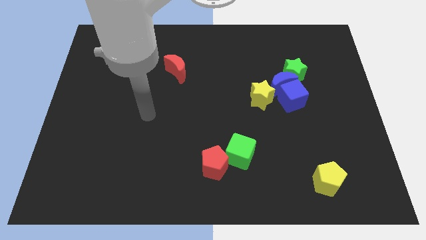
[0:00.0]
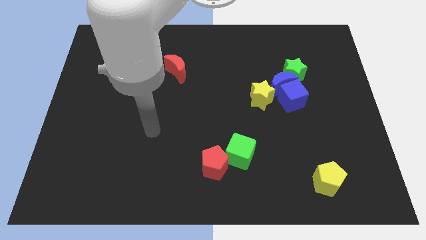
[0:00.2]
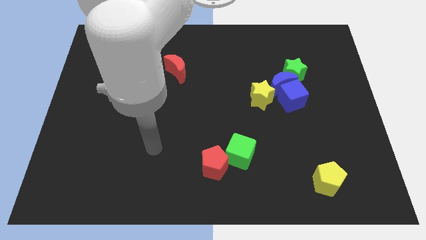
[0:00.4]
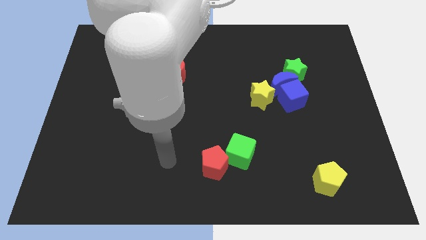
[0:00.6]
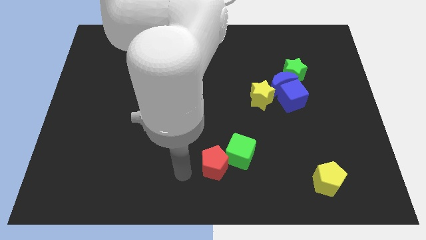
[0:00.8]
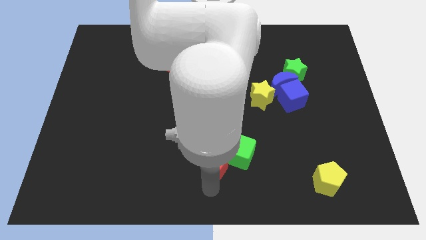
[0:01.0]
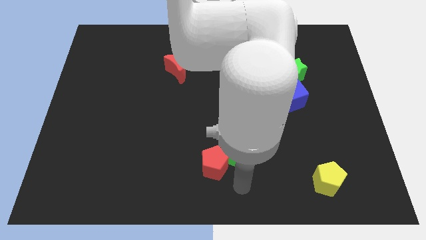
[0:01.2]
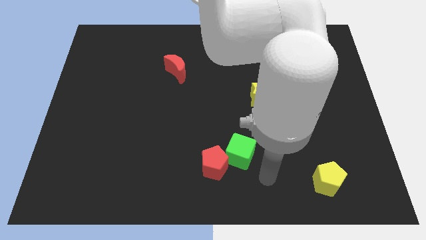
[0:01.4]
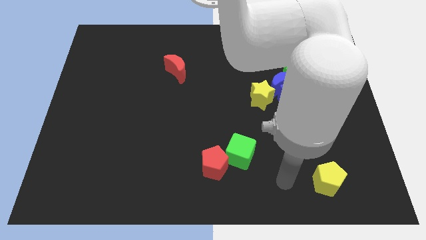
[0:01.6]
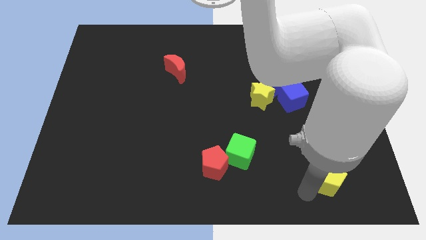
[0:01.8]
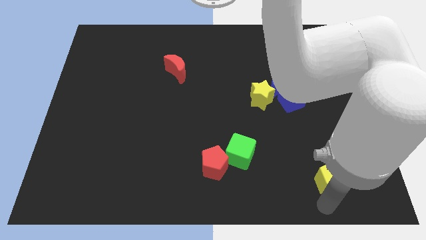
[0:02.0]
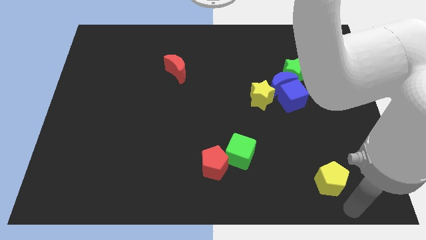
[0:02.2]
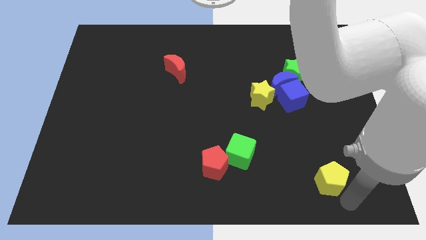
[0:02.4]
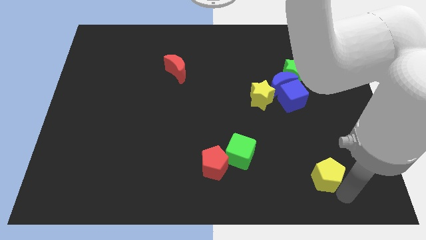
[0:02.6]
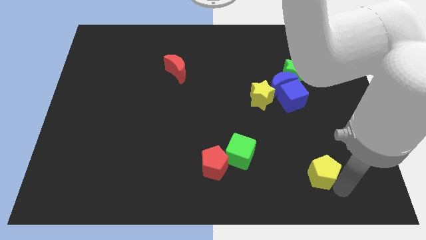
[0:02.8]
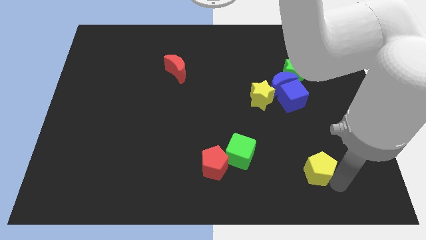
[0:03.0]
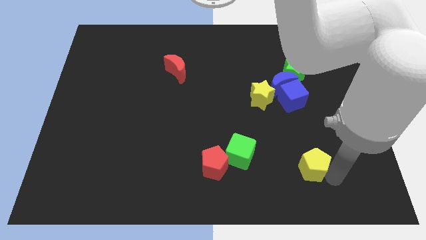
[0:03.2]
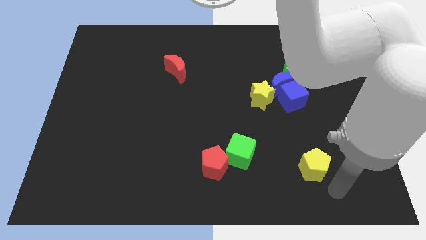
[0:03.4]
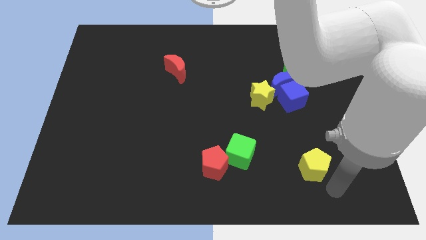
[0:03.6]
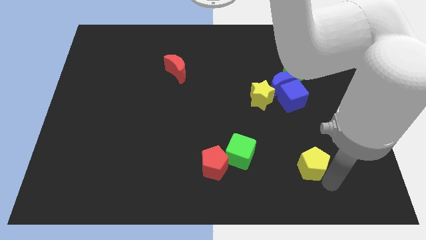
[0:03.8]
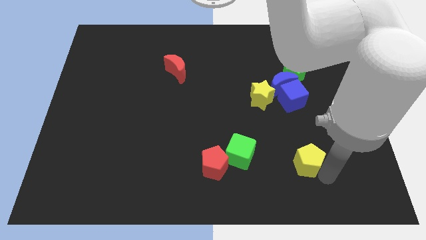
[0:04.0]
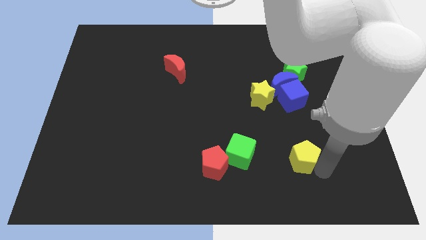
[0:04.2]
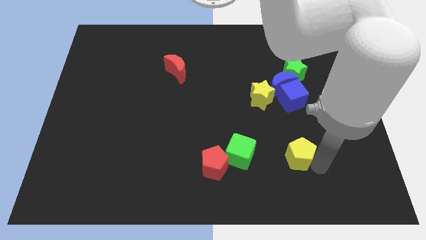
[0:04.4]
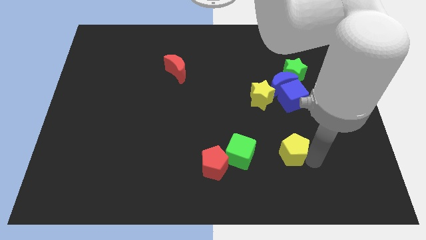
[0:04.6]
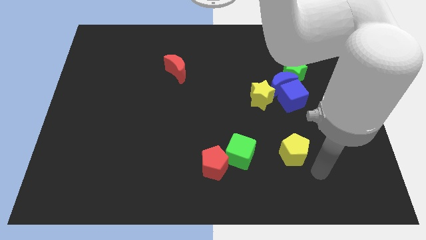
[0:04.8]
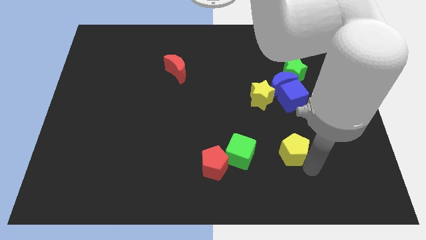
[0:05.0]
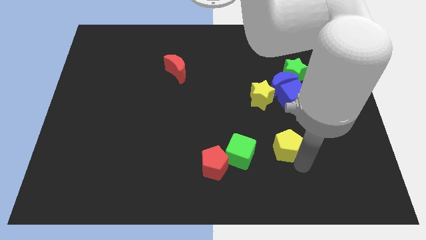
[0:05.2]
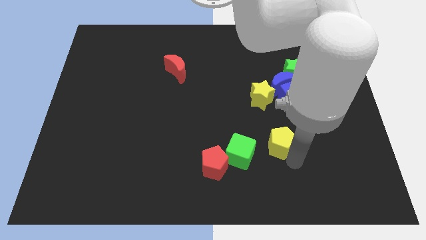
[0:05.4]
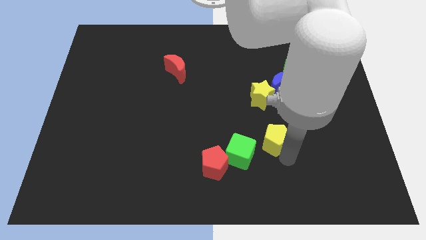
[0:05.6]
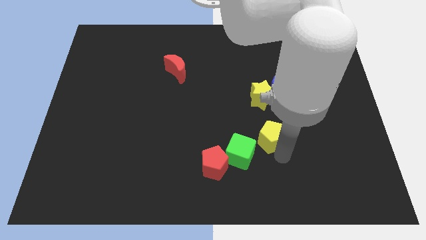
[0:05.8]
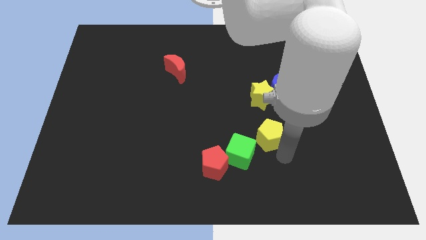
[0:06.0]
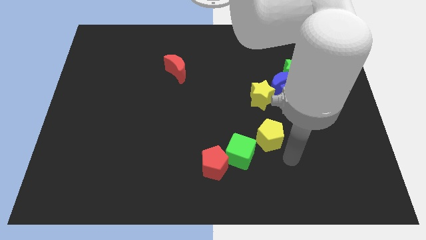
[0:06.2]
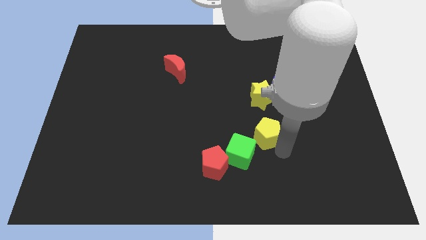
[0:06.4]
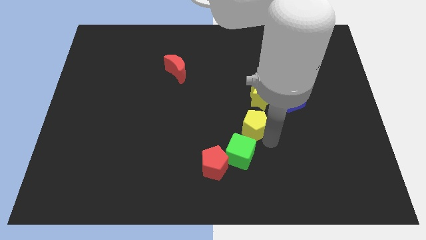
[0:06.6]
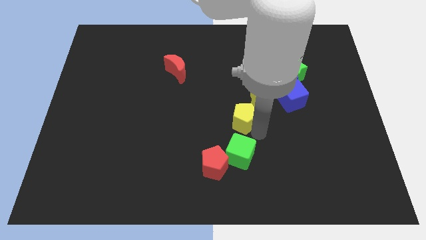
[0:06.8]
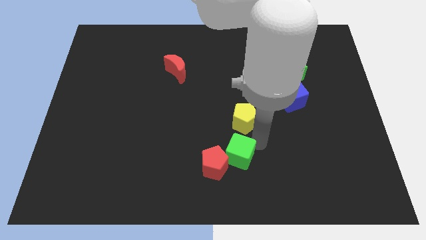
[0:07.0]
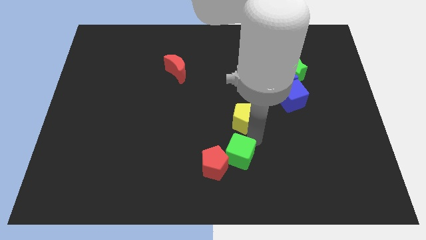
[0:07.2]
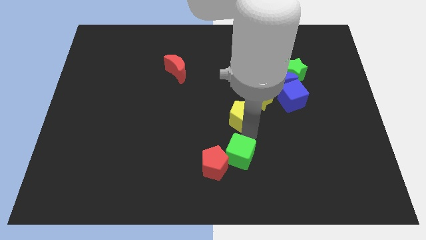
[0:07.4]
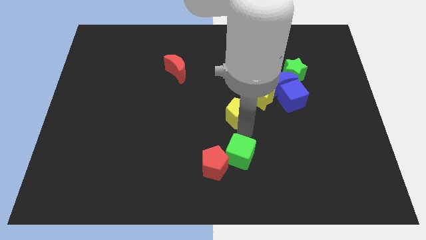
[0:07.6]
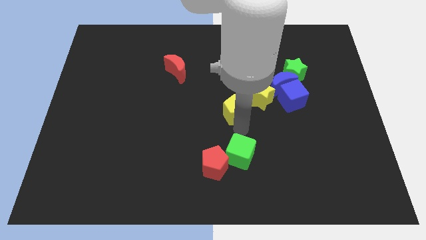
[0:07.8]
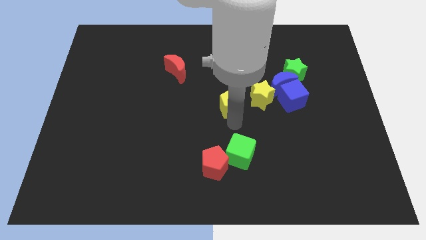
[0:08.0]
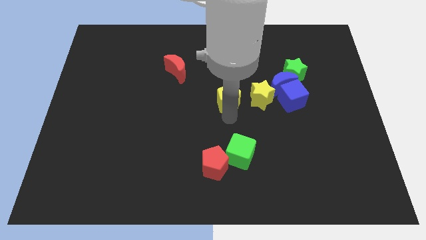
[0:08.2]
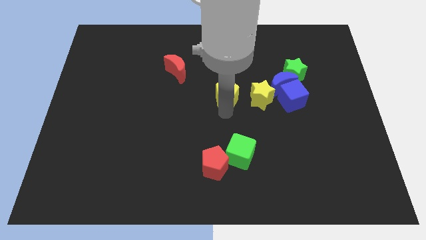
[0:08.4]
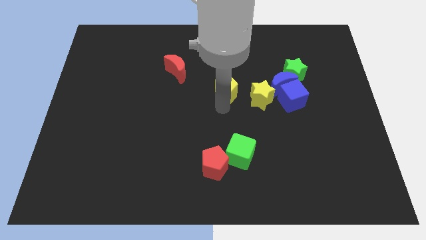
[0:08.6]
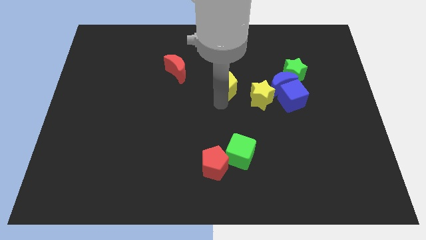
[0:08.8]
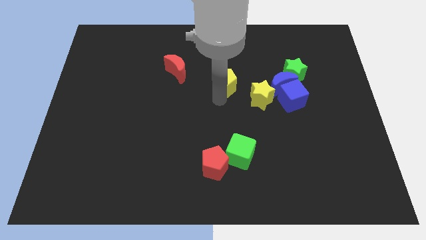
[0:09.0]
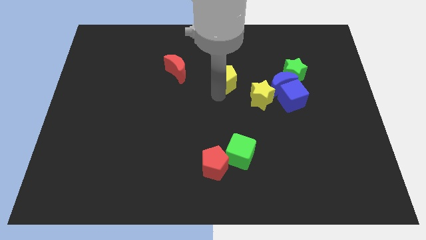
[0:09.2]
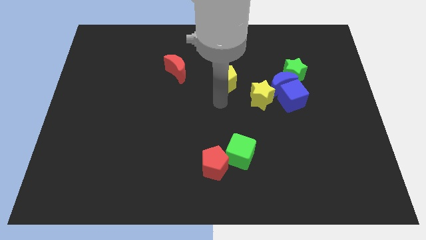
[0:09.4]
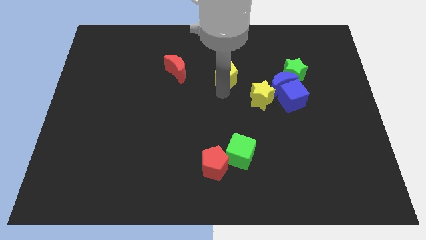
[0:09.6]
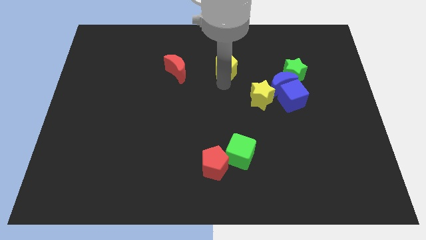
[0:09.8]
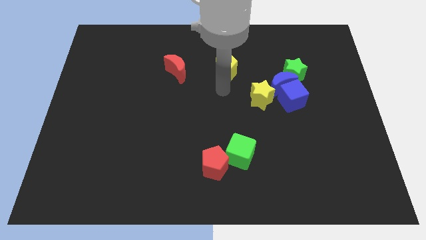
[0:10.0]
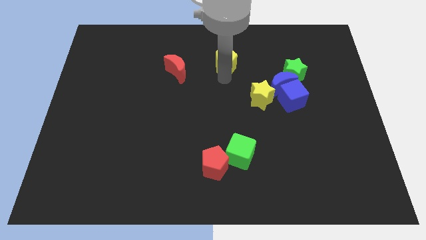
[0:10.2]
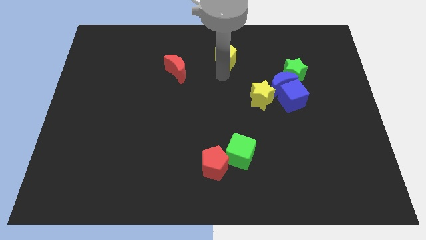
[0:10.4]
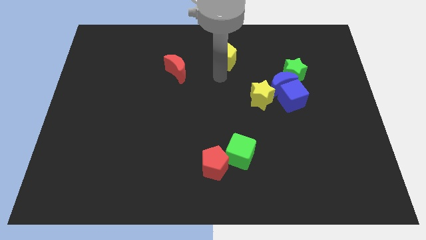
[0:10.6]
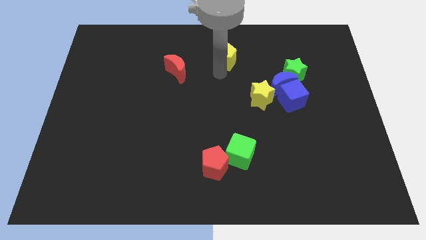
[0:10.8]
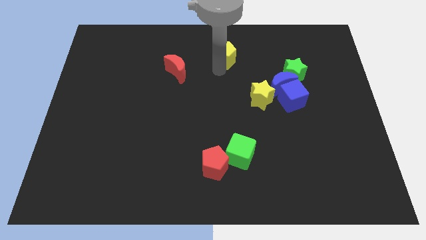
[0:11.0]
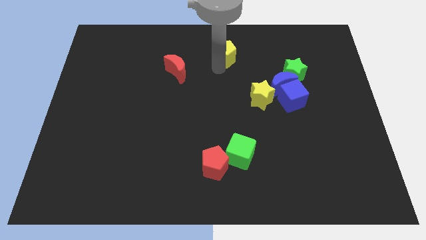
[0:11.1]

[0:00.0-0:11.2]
put the yellow pentagon to the top

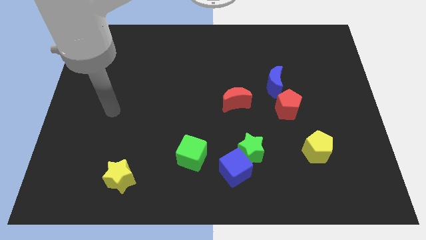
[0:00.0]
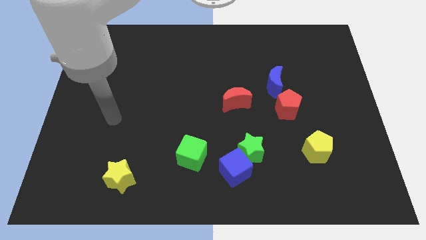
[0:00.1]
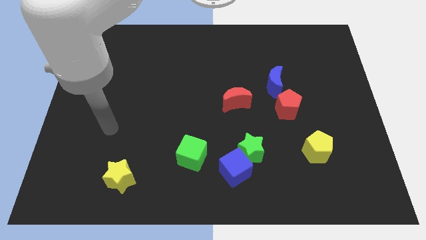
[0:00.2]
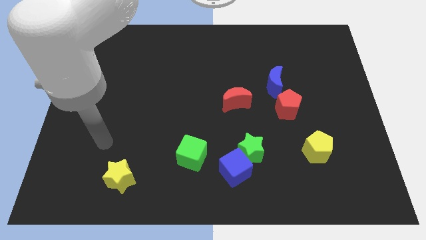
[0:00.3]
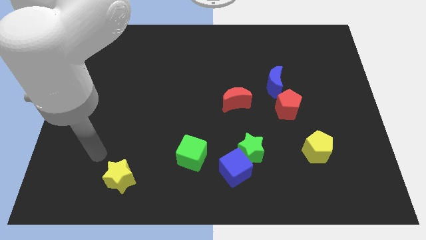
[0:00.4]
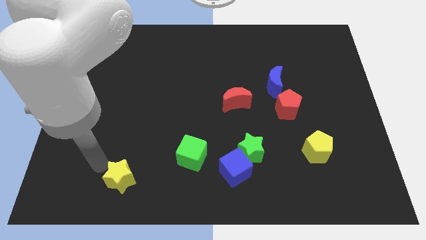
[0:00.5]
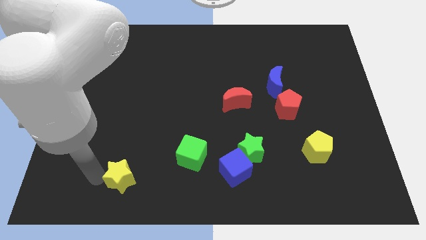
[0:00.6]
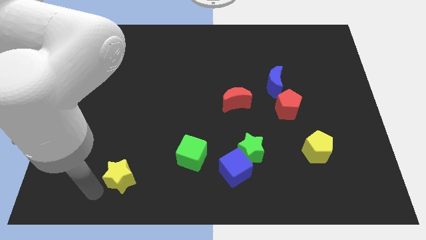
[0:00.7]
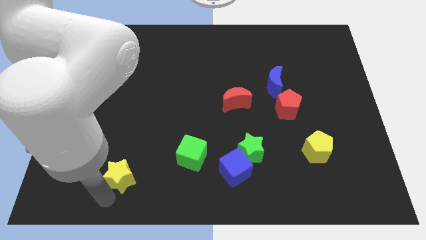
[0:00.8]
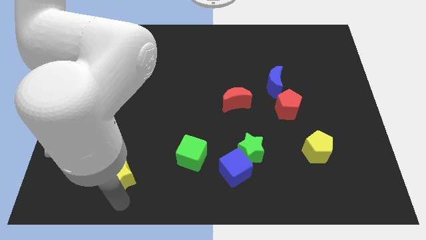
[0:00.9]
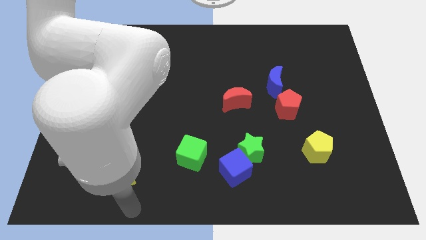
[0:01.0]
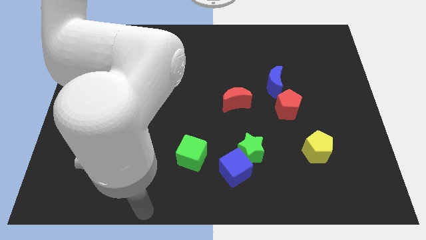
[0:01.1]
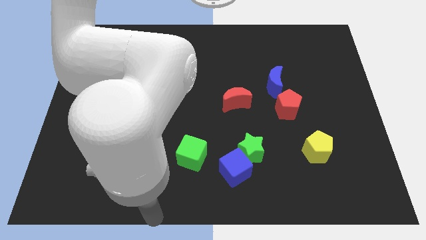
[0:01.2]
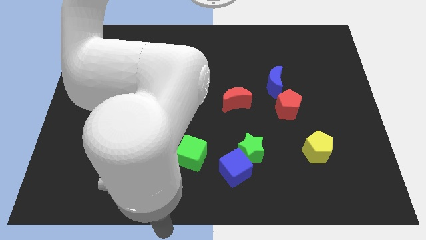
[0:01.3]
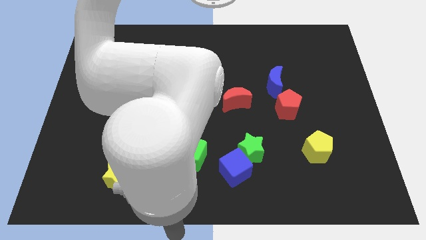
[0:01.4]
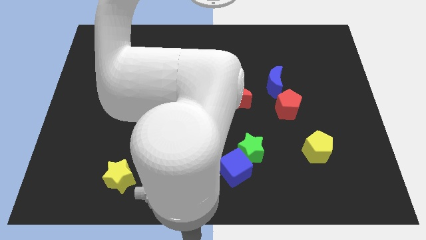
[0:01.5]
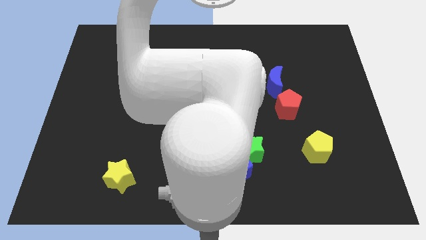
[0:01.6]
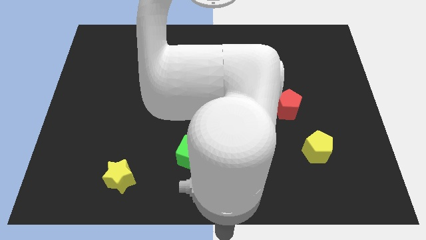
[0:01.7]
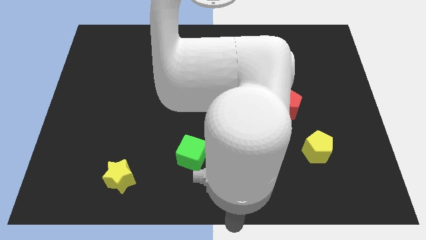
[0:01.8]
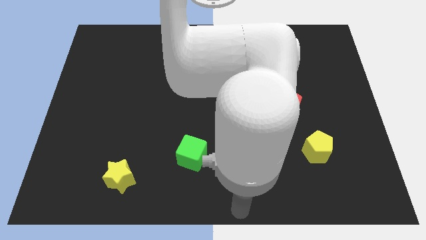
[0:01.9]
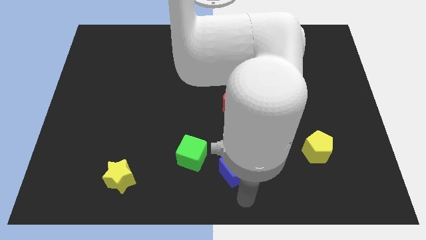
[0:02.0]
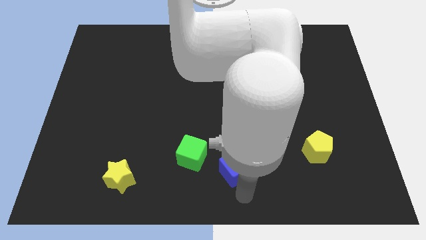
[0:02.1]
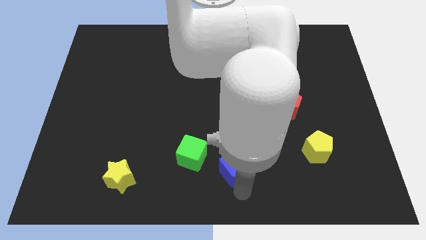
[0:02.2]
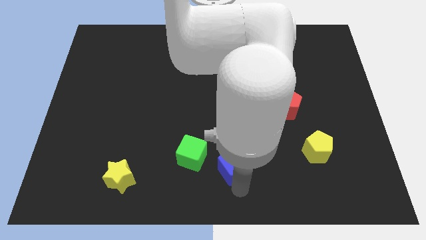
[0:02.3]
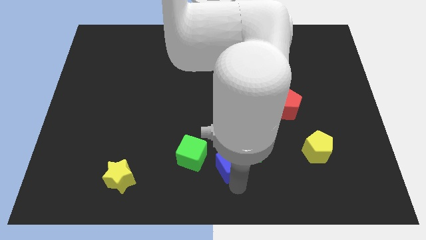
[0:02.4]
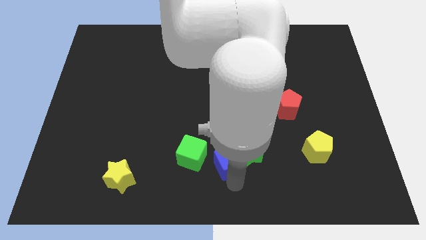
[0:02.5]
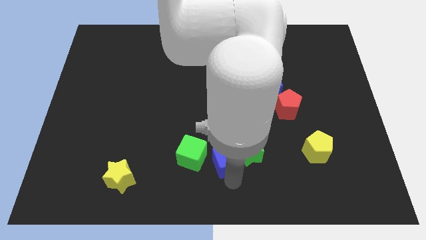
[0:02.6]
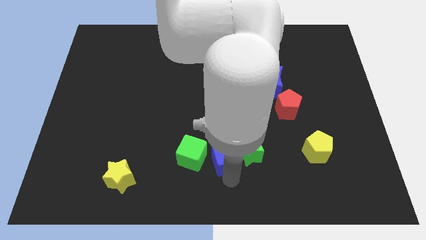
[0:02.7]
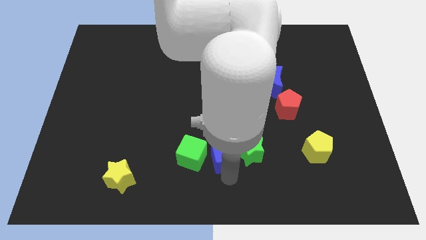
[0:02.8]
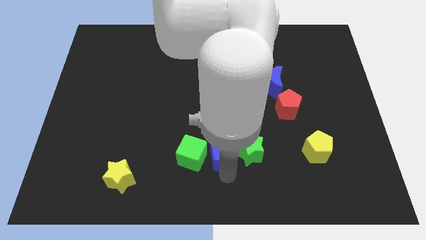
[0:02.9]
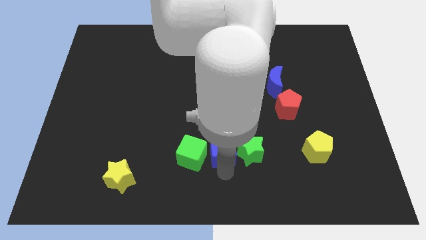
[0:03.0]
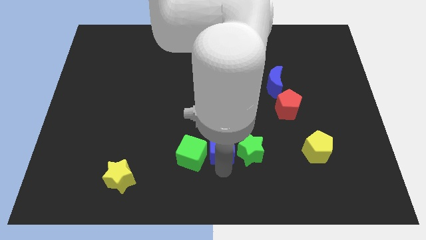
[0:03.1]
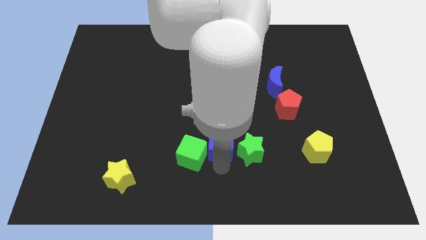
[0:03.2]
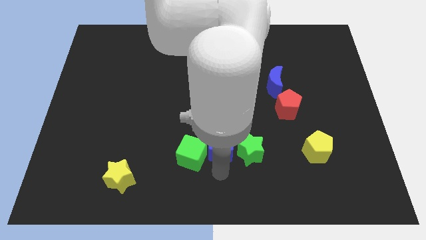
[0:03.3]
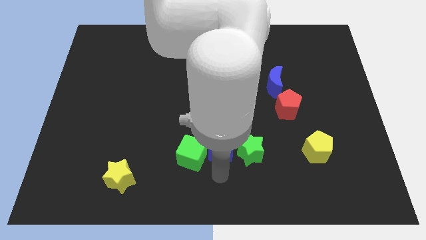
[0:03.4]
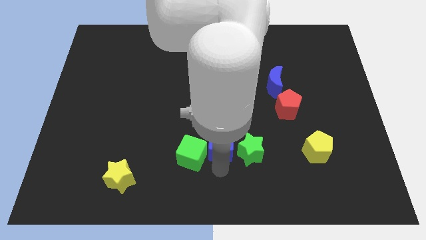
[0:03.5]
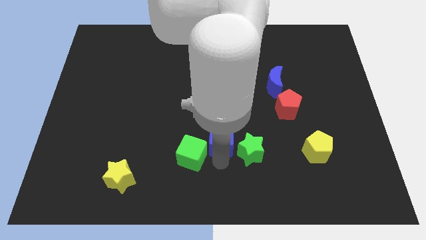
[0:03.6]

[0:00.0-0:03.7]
put the blue cube to the middle of the board
